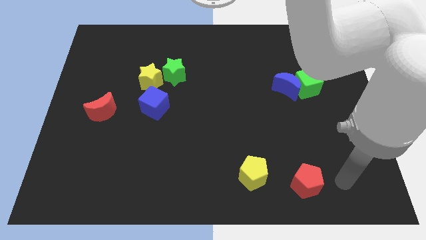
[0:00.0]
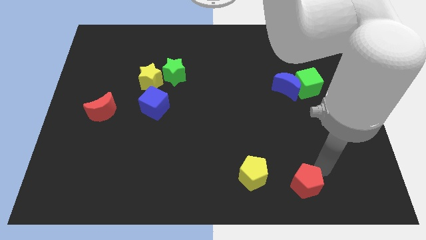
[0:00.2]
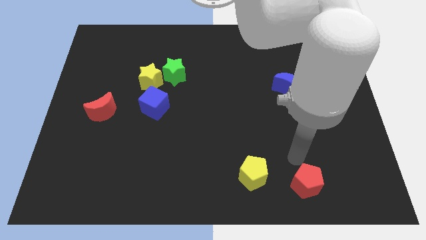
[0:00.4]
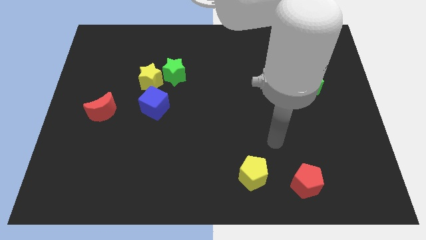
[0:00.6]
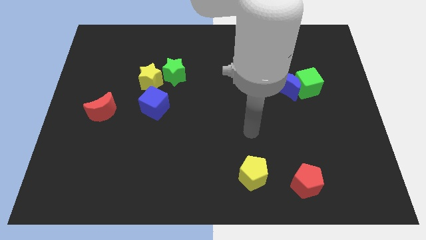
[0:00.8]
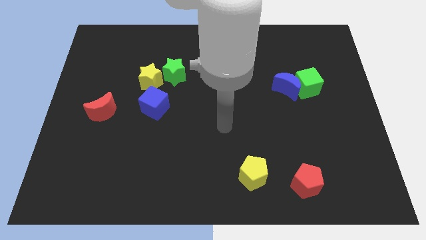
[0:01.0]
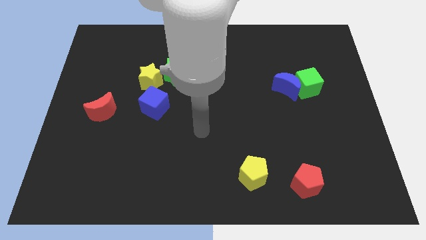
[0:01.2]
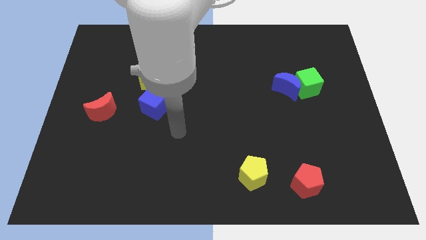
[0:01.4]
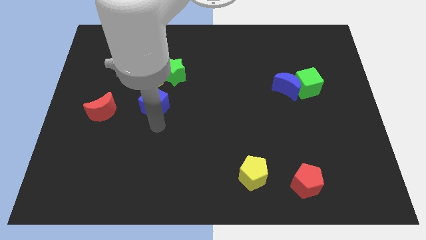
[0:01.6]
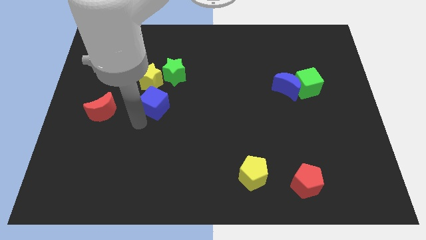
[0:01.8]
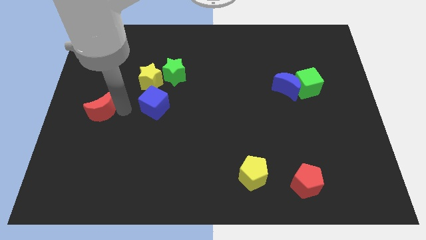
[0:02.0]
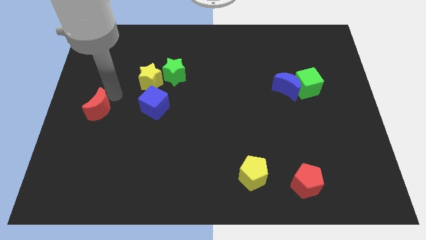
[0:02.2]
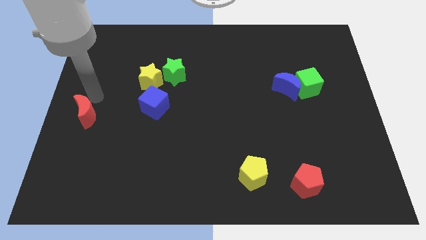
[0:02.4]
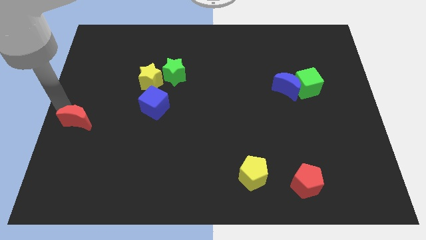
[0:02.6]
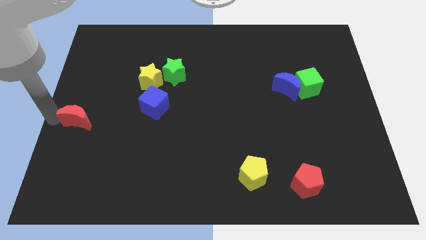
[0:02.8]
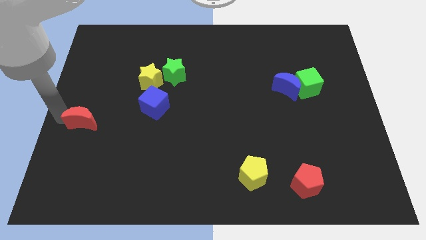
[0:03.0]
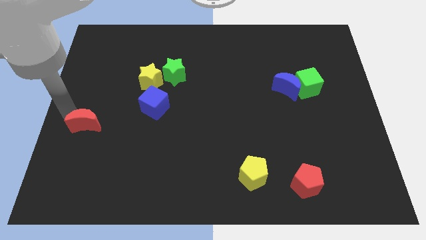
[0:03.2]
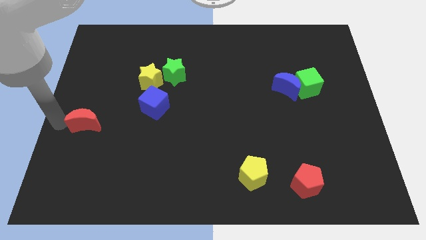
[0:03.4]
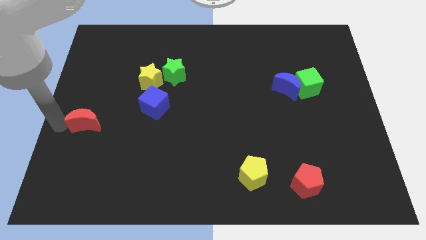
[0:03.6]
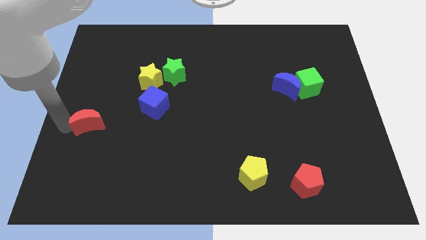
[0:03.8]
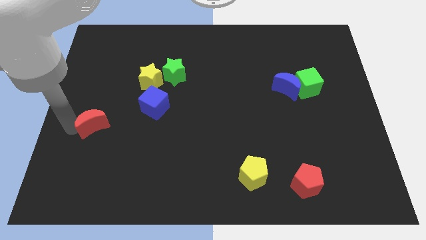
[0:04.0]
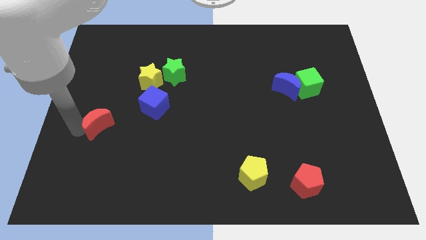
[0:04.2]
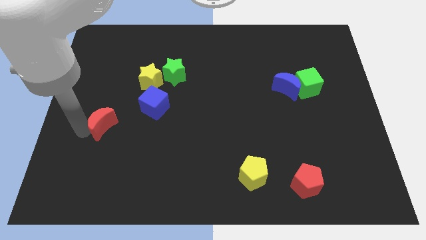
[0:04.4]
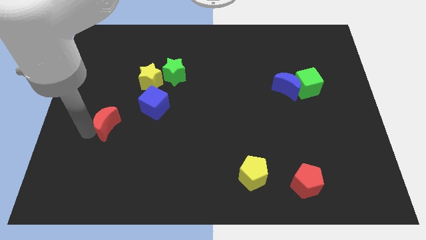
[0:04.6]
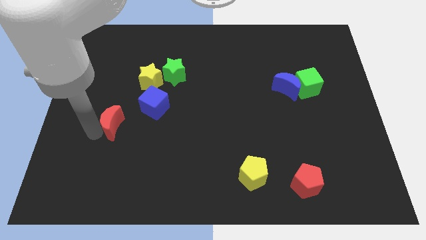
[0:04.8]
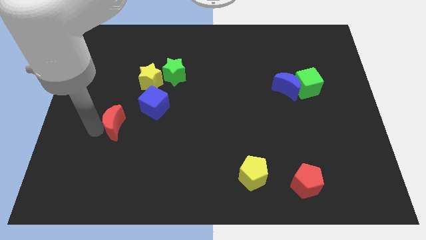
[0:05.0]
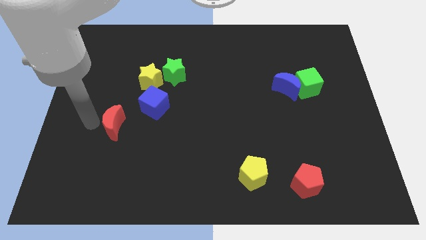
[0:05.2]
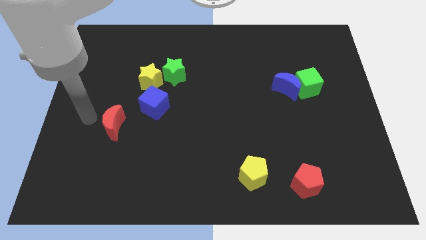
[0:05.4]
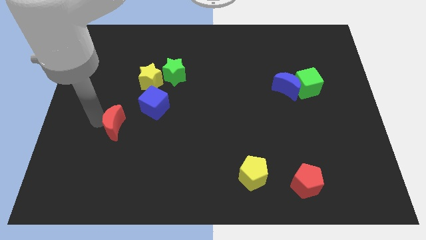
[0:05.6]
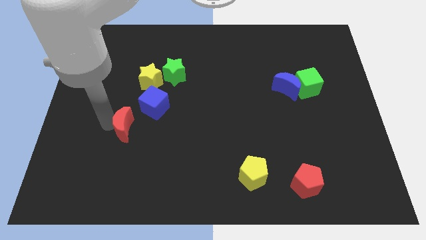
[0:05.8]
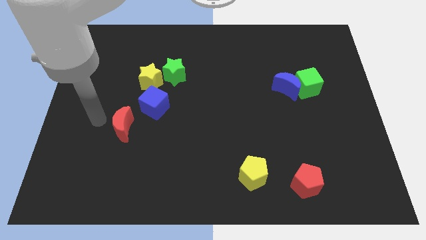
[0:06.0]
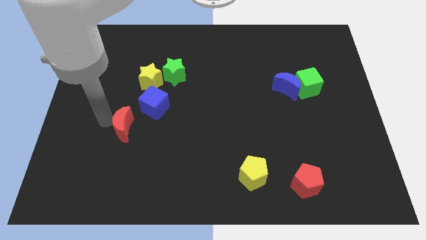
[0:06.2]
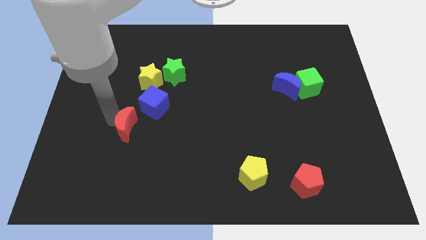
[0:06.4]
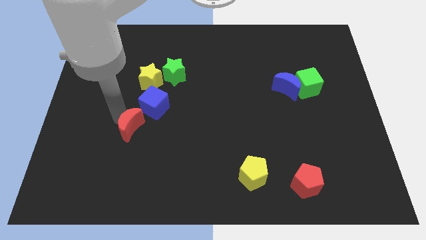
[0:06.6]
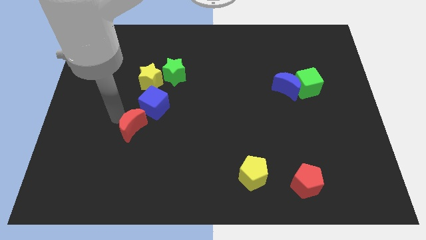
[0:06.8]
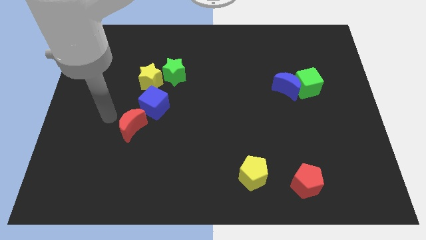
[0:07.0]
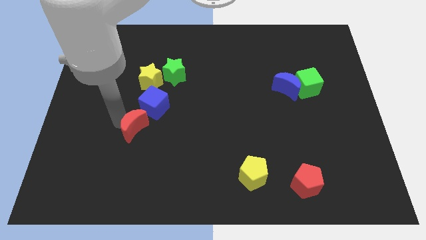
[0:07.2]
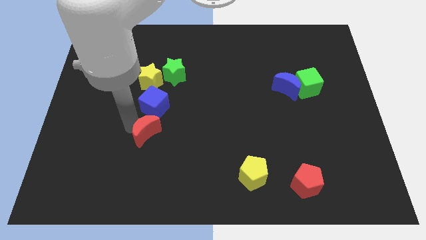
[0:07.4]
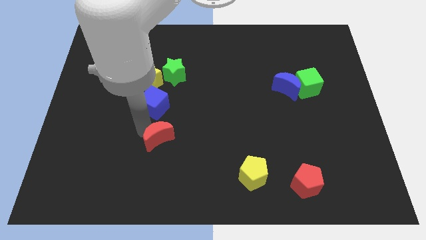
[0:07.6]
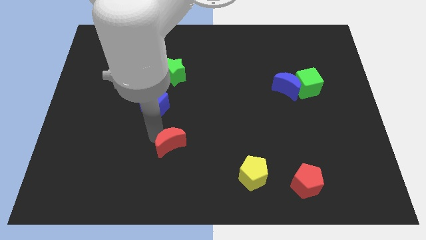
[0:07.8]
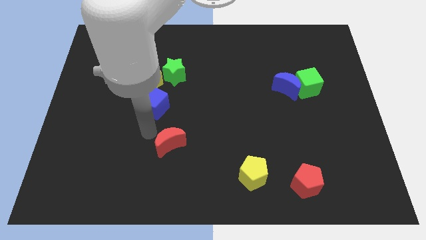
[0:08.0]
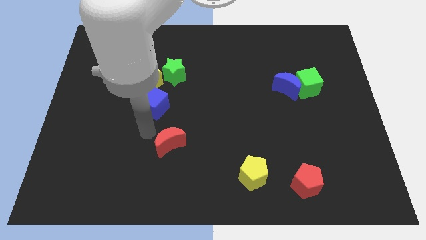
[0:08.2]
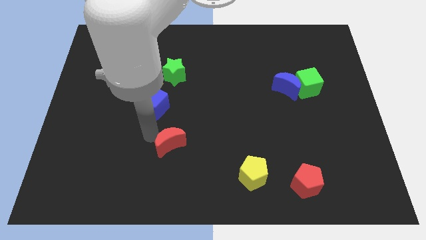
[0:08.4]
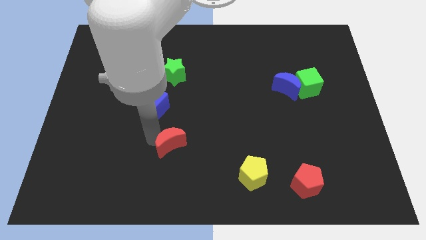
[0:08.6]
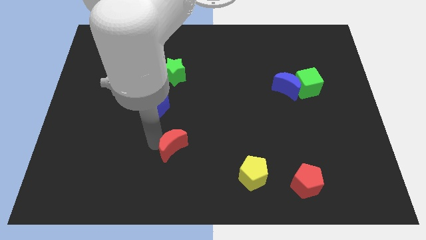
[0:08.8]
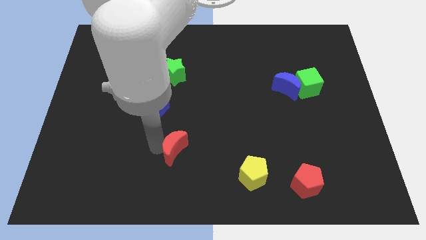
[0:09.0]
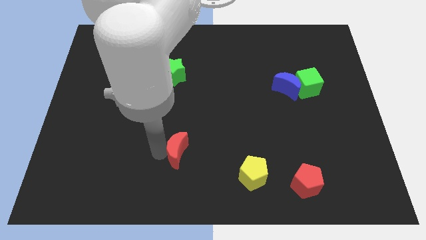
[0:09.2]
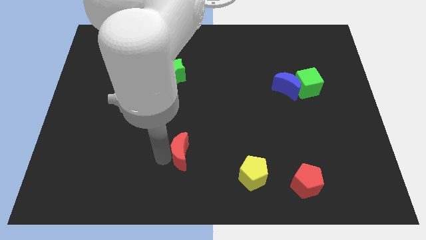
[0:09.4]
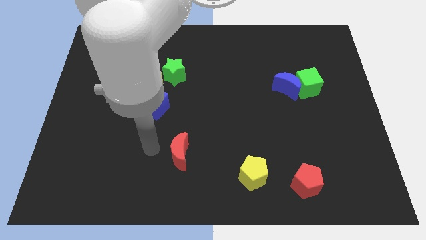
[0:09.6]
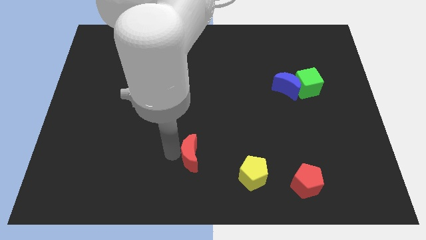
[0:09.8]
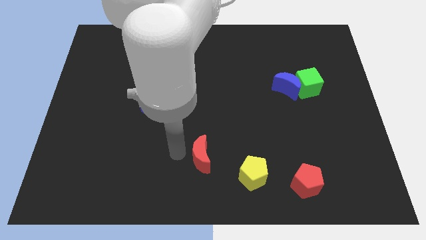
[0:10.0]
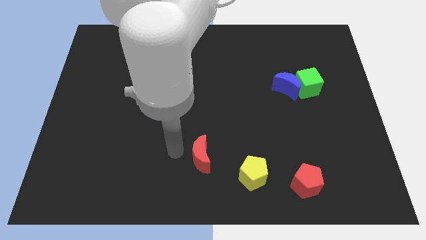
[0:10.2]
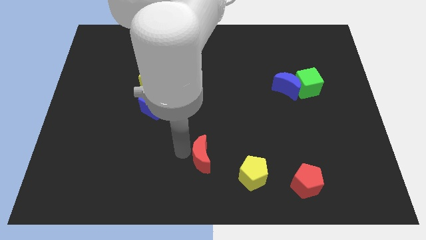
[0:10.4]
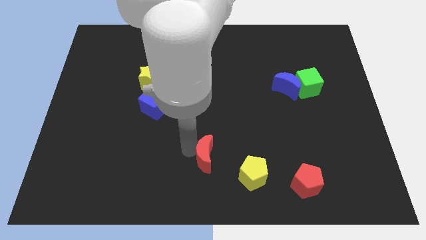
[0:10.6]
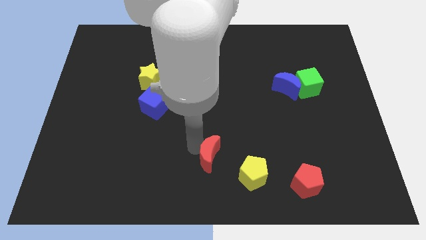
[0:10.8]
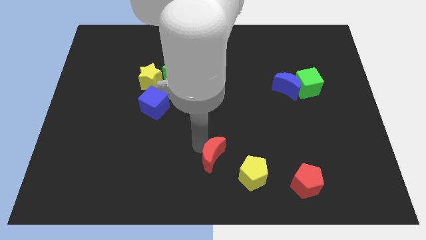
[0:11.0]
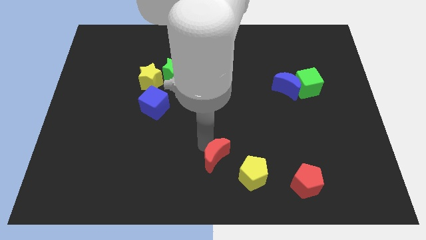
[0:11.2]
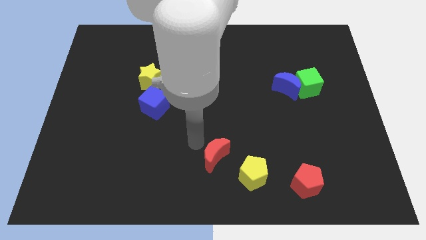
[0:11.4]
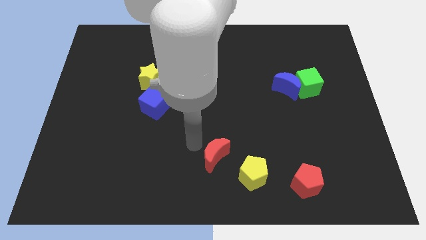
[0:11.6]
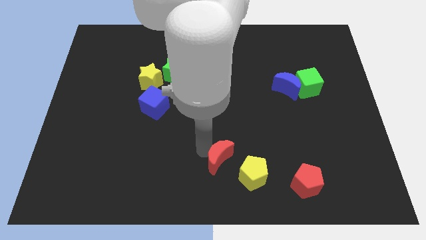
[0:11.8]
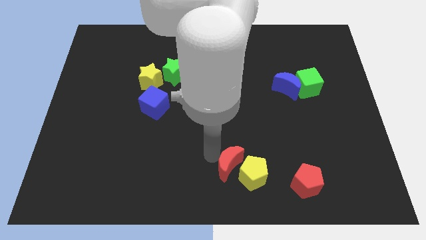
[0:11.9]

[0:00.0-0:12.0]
push the red moon to the yellow pentagon

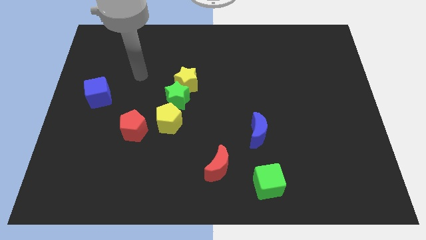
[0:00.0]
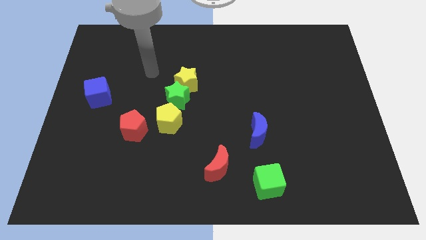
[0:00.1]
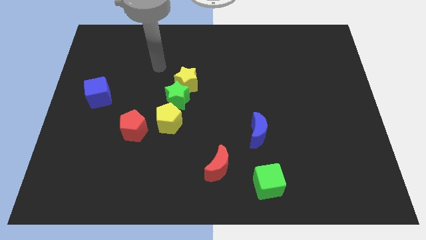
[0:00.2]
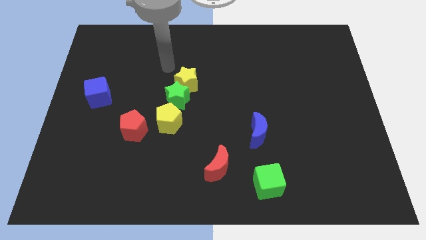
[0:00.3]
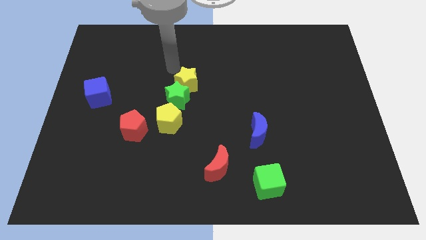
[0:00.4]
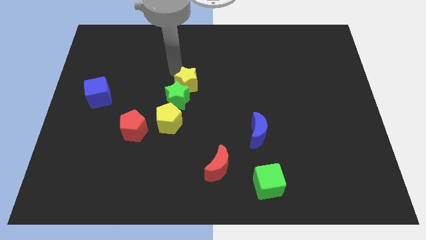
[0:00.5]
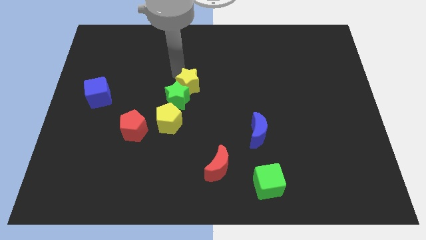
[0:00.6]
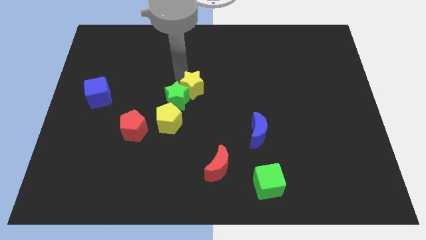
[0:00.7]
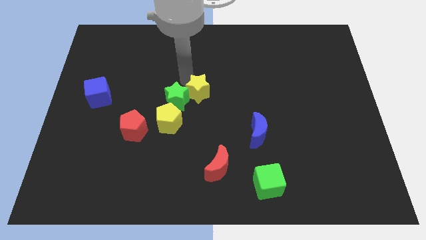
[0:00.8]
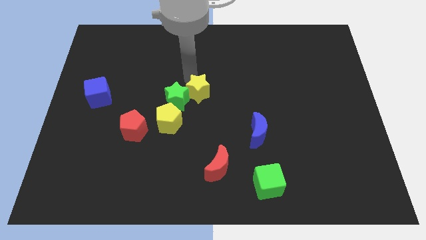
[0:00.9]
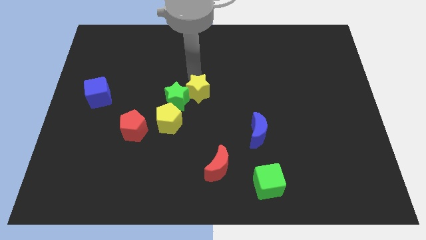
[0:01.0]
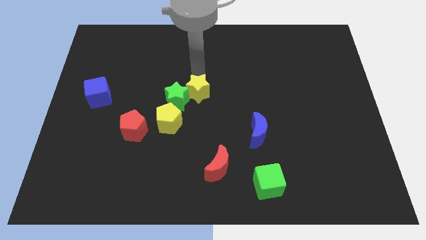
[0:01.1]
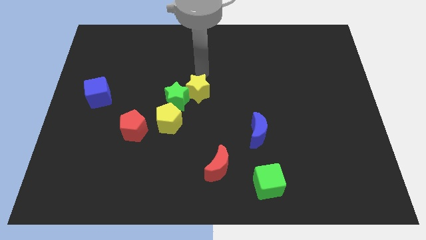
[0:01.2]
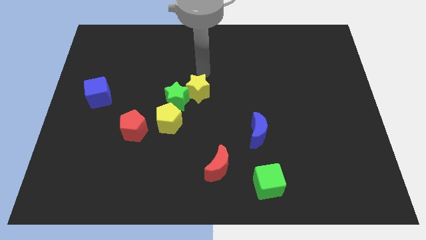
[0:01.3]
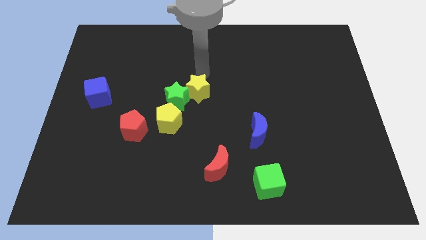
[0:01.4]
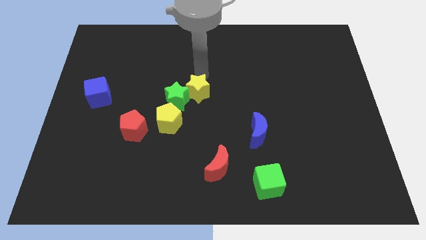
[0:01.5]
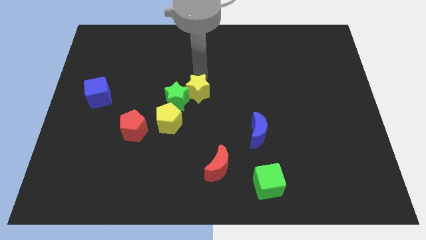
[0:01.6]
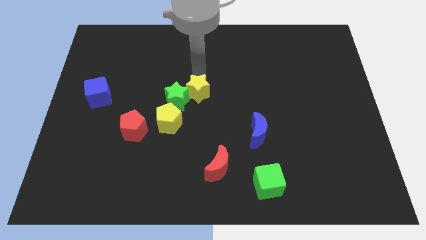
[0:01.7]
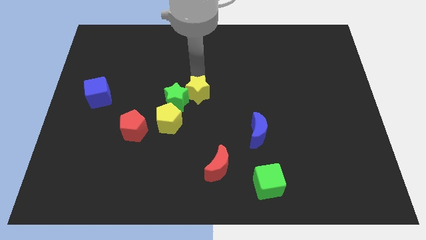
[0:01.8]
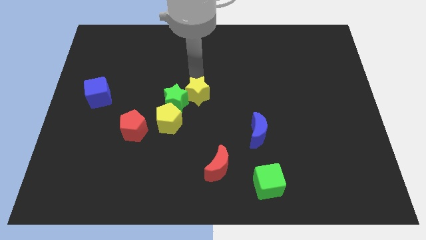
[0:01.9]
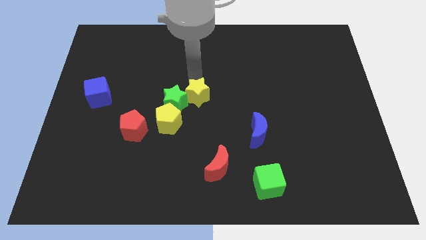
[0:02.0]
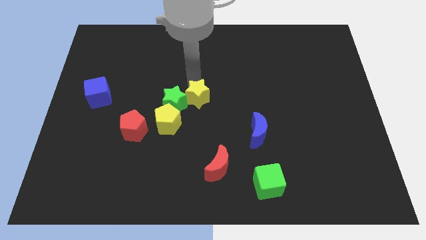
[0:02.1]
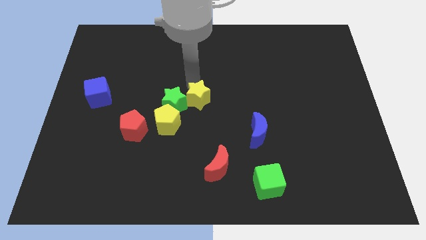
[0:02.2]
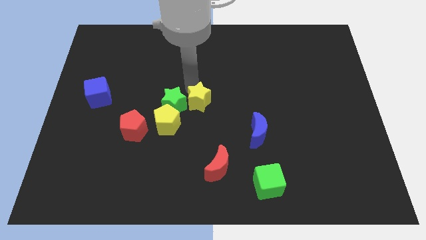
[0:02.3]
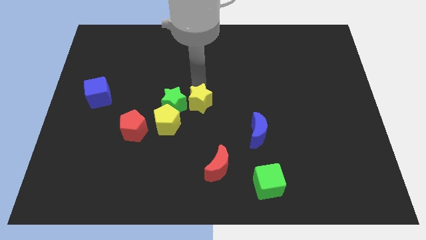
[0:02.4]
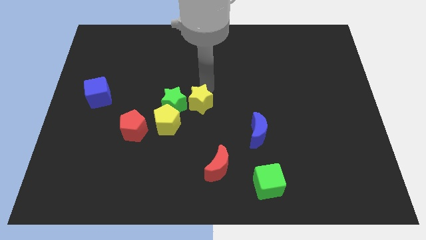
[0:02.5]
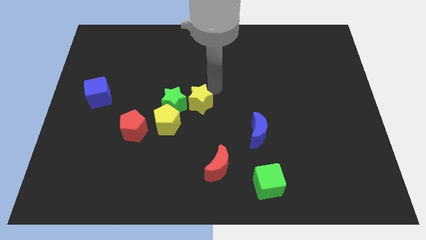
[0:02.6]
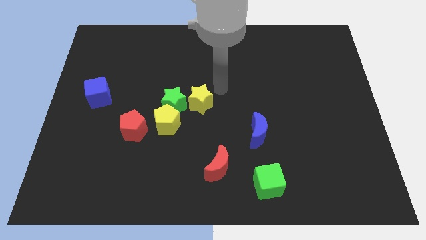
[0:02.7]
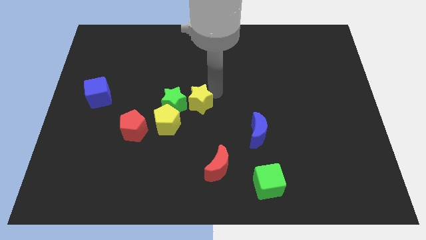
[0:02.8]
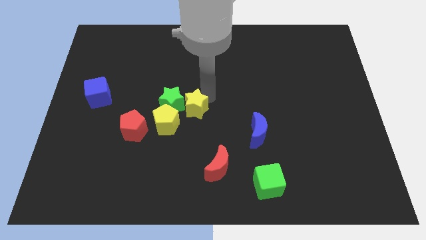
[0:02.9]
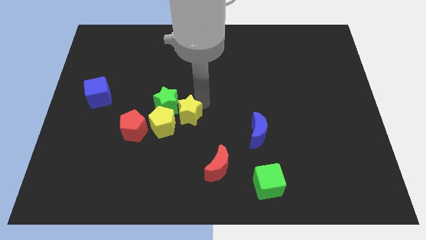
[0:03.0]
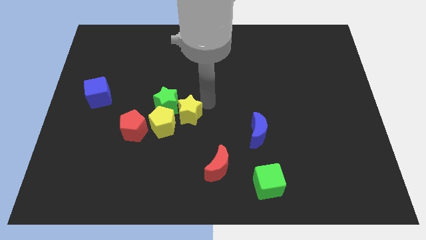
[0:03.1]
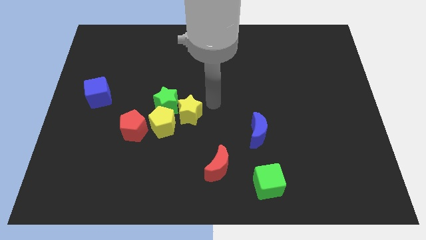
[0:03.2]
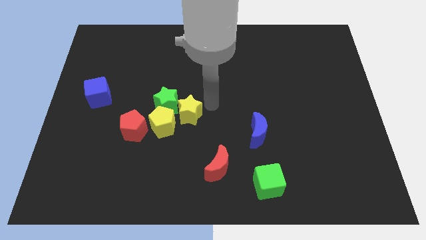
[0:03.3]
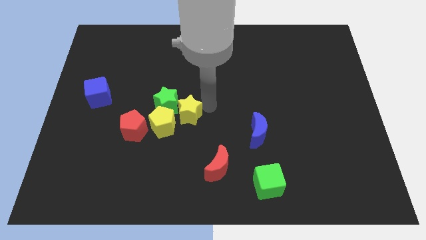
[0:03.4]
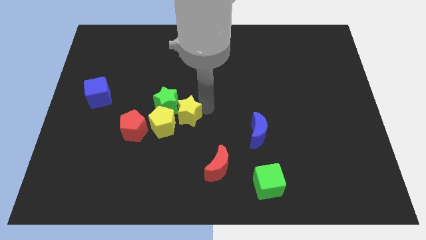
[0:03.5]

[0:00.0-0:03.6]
slide the yellow star to the yellow pentagon
